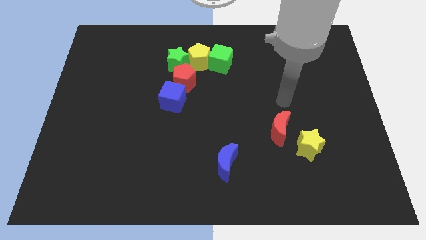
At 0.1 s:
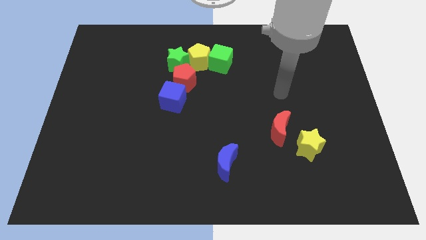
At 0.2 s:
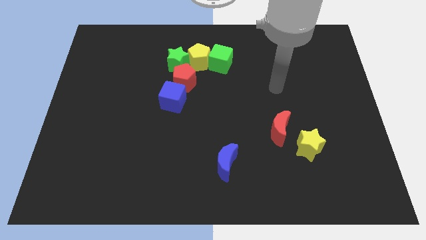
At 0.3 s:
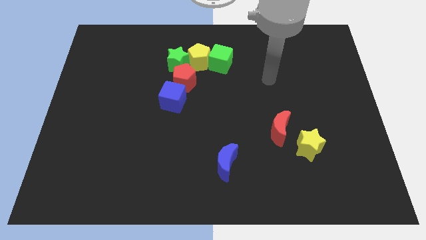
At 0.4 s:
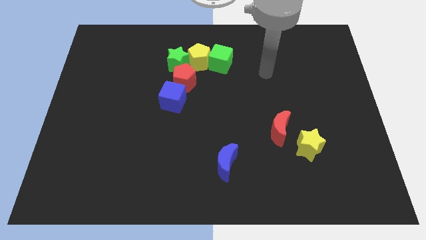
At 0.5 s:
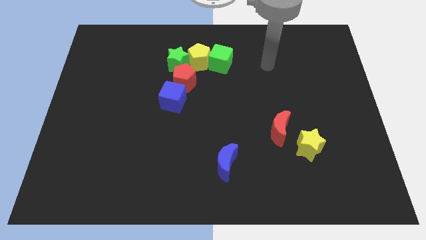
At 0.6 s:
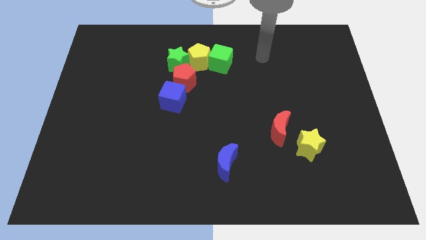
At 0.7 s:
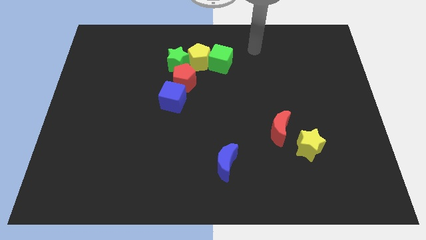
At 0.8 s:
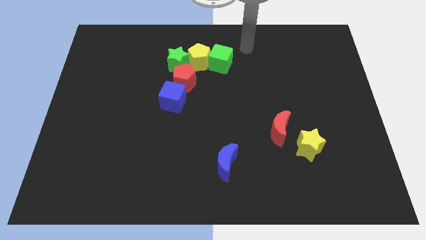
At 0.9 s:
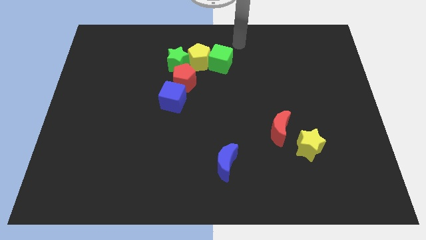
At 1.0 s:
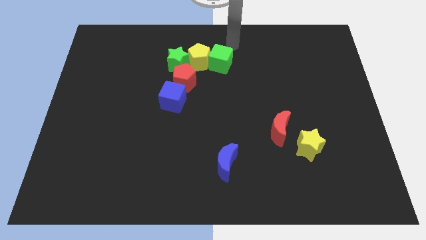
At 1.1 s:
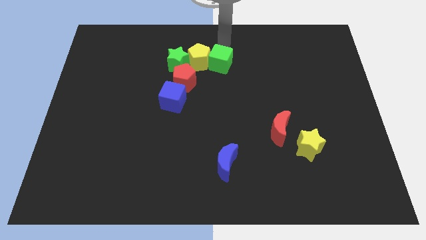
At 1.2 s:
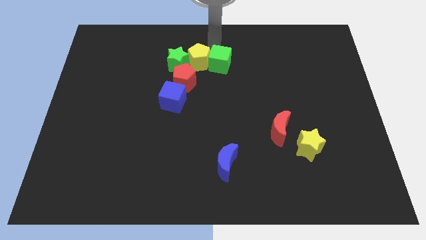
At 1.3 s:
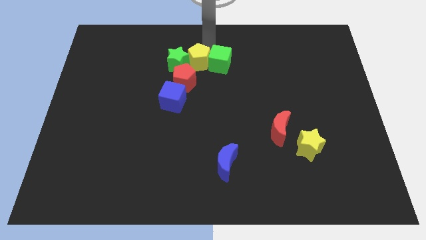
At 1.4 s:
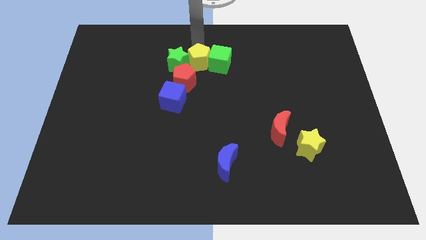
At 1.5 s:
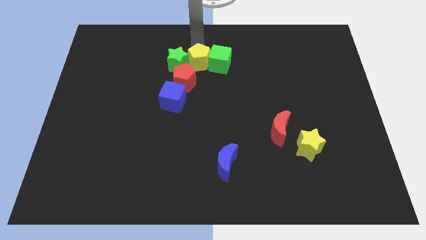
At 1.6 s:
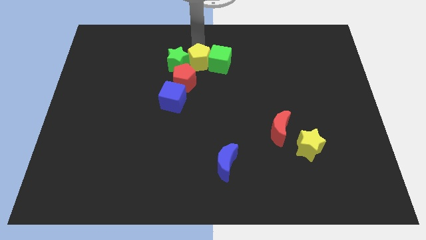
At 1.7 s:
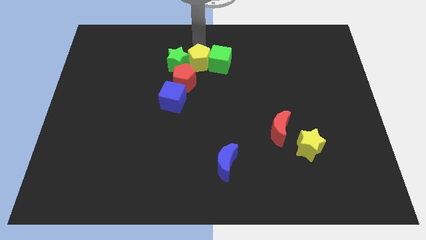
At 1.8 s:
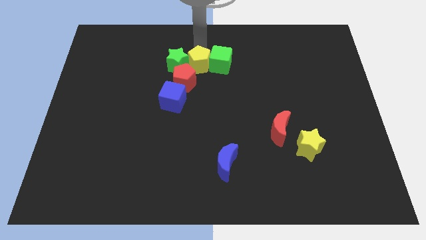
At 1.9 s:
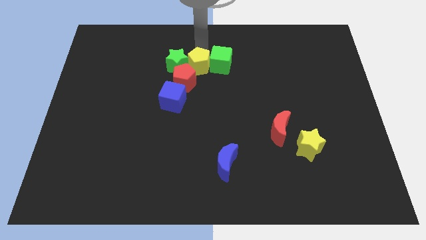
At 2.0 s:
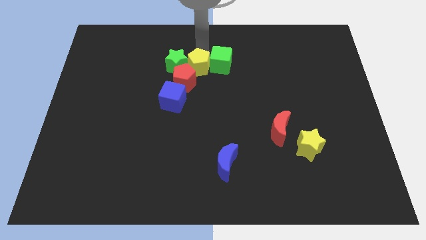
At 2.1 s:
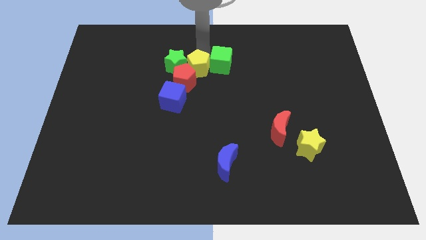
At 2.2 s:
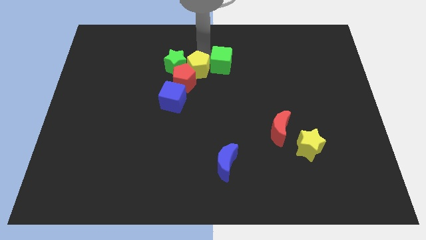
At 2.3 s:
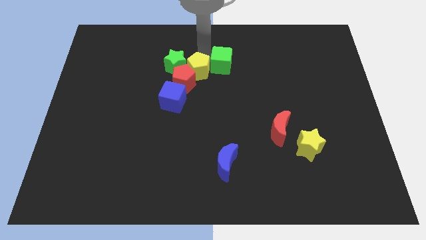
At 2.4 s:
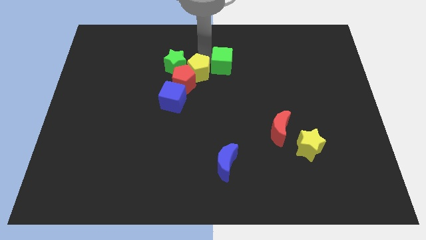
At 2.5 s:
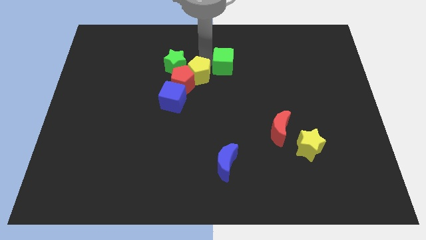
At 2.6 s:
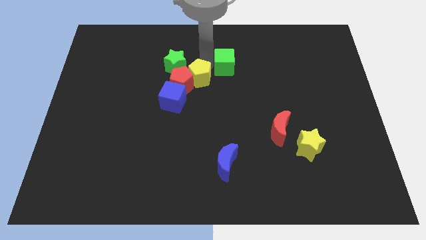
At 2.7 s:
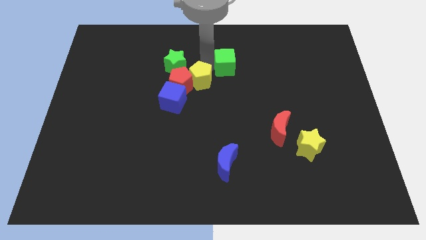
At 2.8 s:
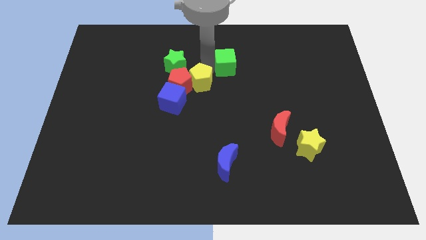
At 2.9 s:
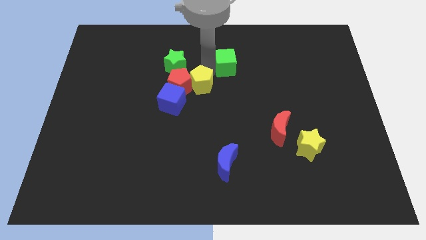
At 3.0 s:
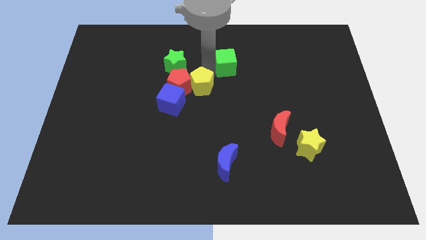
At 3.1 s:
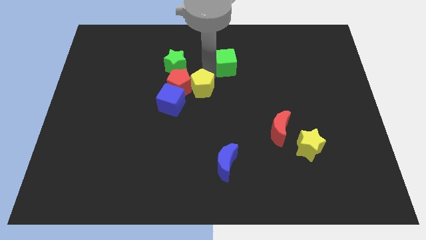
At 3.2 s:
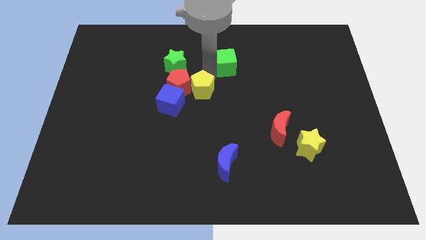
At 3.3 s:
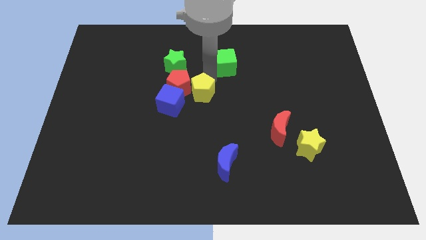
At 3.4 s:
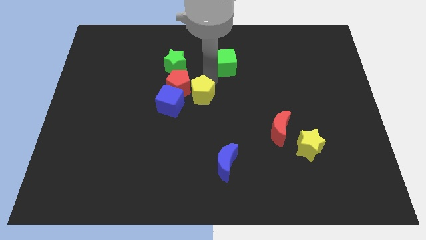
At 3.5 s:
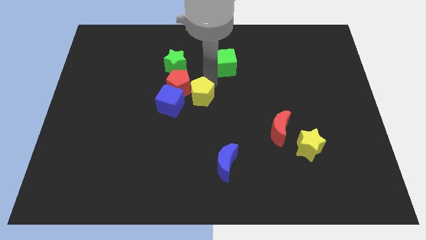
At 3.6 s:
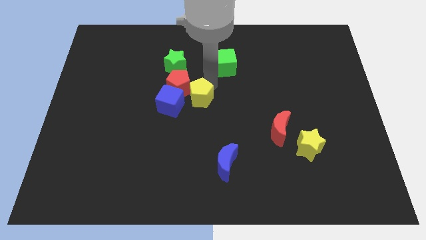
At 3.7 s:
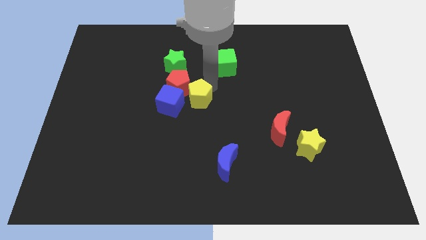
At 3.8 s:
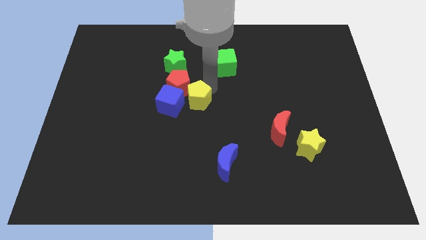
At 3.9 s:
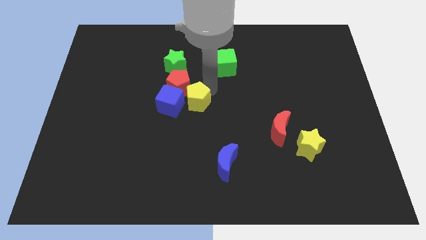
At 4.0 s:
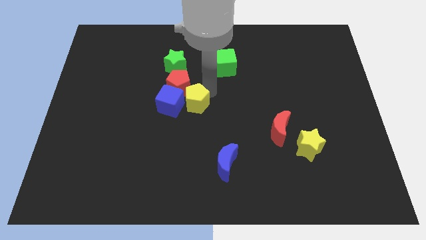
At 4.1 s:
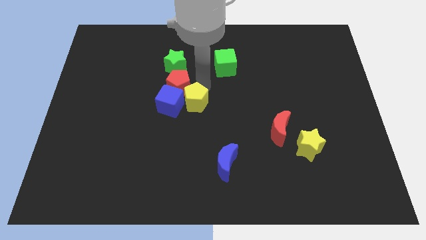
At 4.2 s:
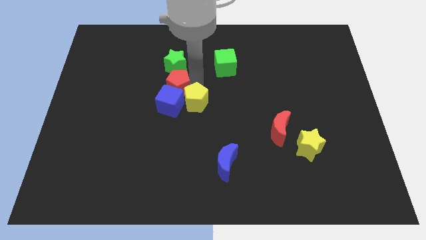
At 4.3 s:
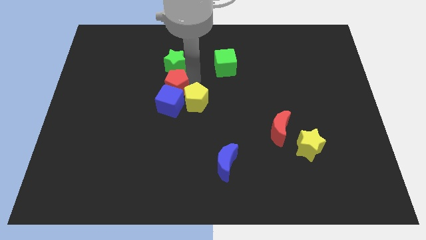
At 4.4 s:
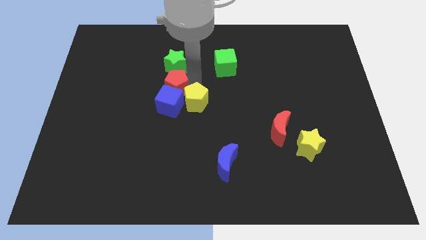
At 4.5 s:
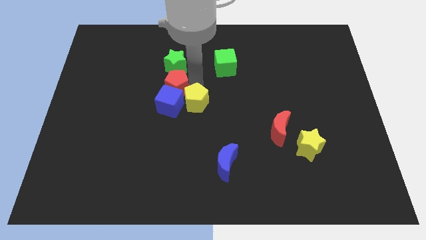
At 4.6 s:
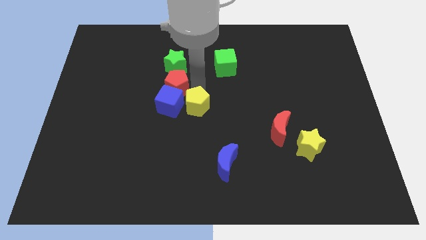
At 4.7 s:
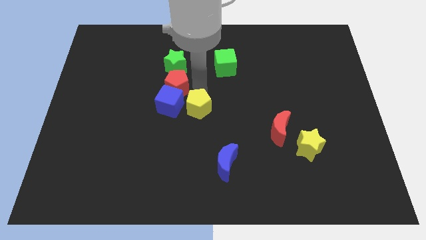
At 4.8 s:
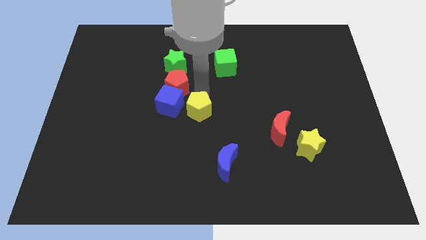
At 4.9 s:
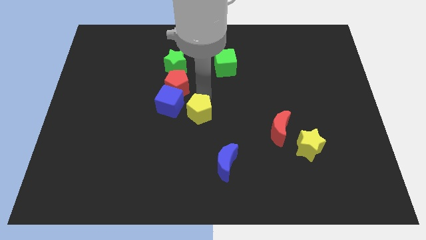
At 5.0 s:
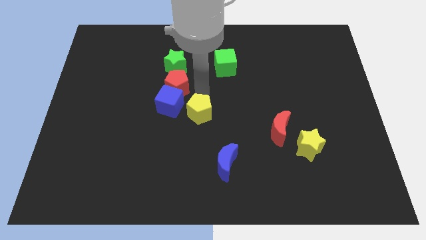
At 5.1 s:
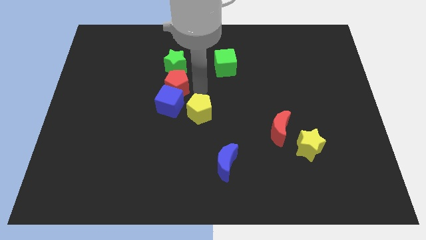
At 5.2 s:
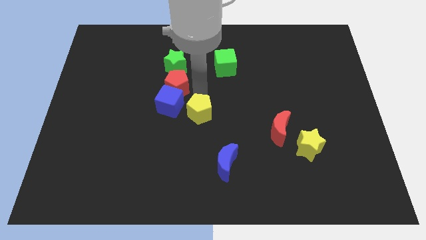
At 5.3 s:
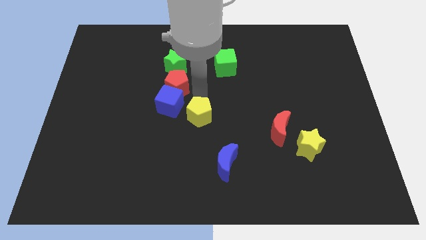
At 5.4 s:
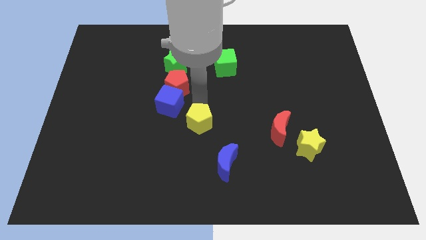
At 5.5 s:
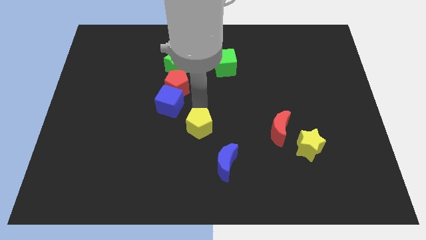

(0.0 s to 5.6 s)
push the yellow pentagon downwards

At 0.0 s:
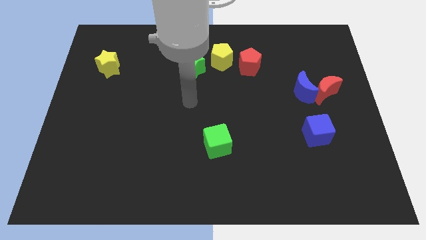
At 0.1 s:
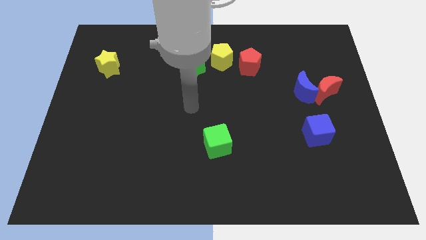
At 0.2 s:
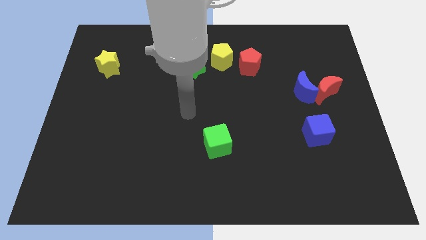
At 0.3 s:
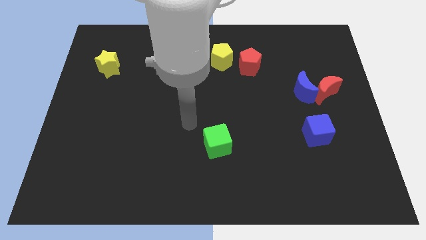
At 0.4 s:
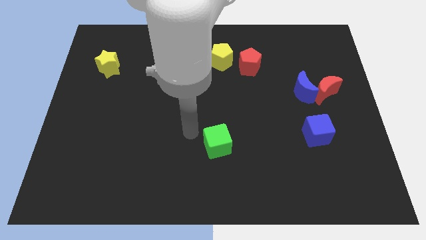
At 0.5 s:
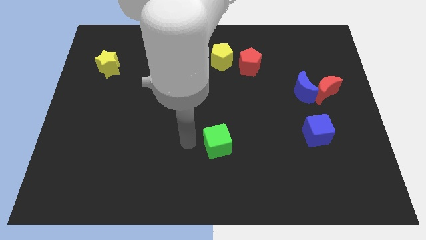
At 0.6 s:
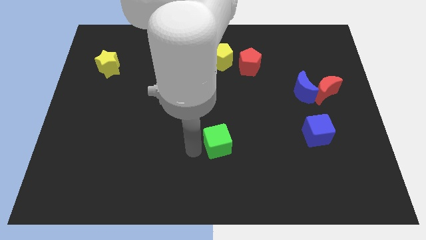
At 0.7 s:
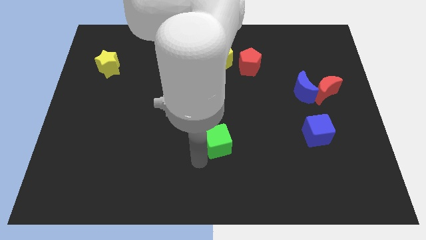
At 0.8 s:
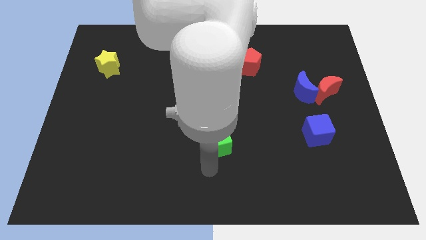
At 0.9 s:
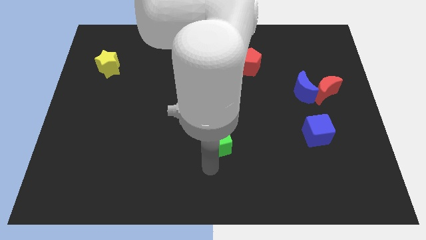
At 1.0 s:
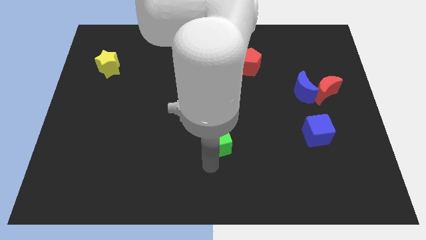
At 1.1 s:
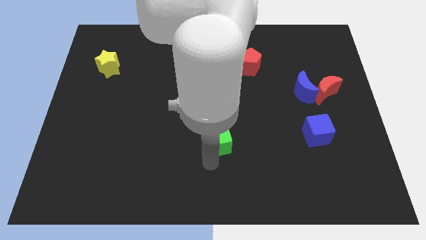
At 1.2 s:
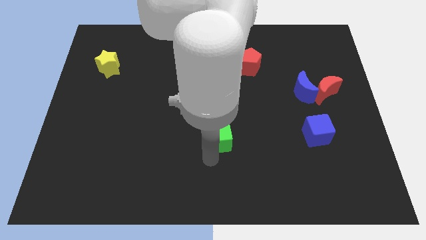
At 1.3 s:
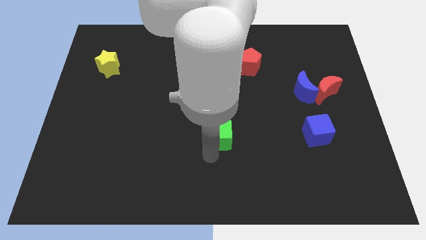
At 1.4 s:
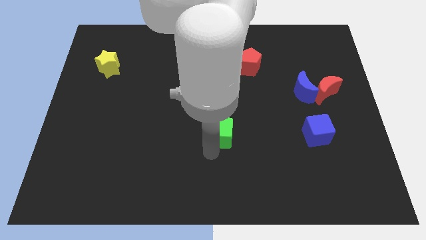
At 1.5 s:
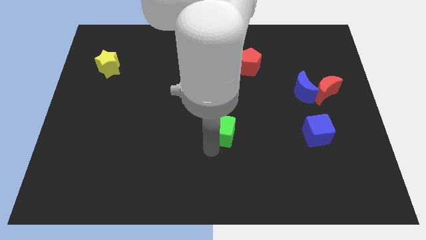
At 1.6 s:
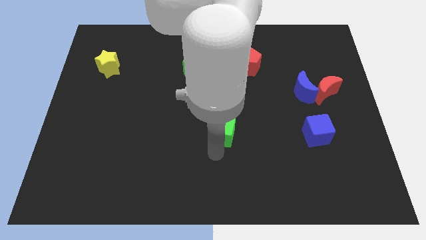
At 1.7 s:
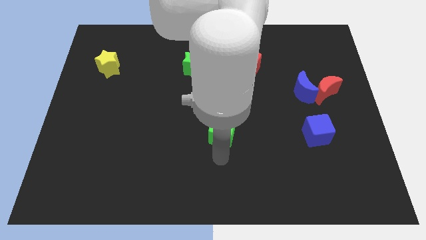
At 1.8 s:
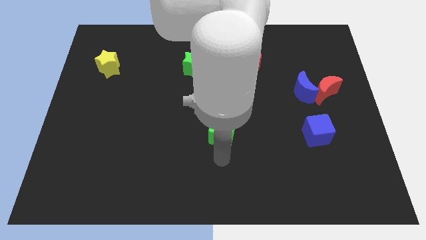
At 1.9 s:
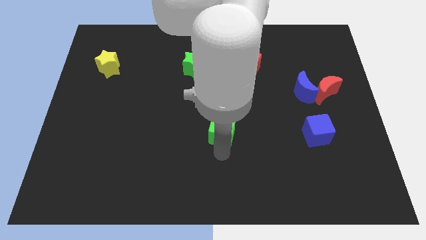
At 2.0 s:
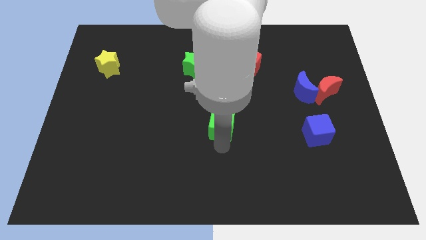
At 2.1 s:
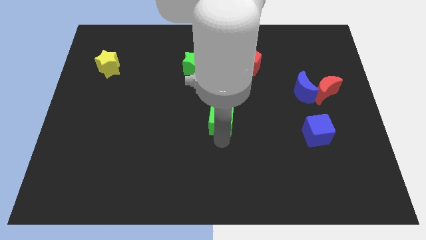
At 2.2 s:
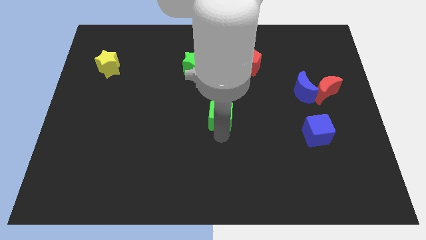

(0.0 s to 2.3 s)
move the green cube upwards a little

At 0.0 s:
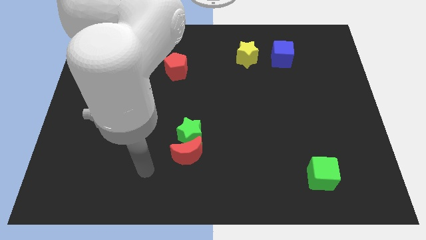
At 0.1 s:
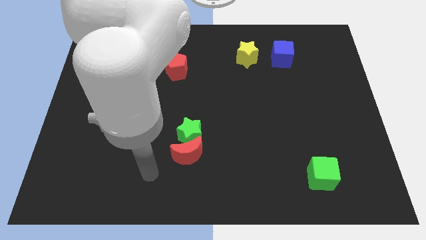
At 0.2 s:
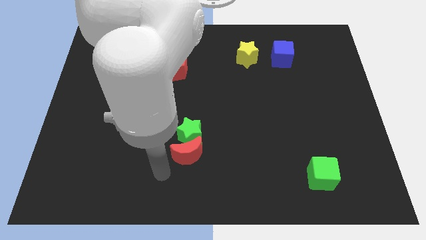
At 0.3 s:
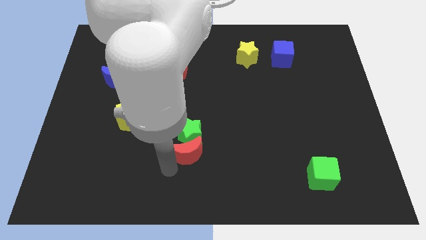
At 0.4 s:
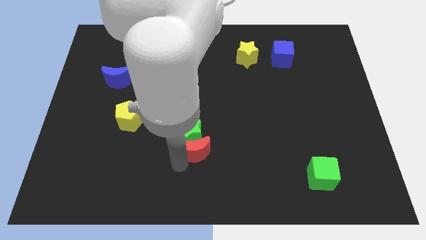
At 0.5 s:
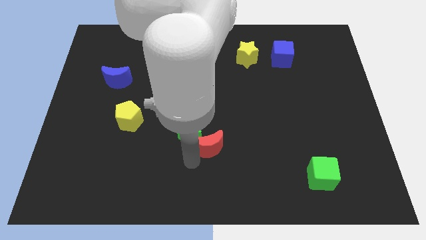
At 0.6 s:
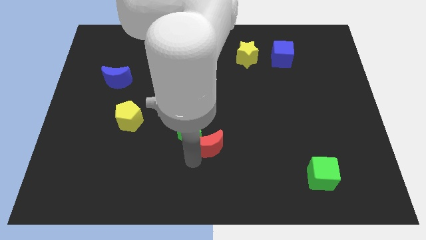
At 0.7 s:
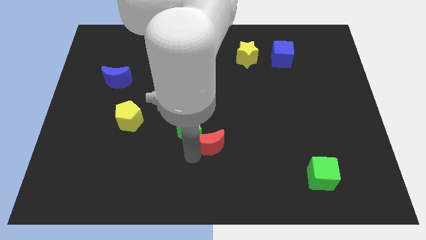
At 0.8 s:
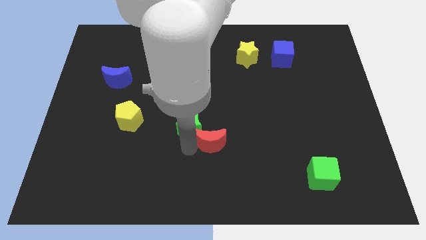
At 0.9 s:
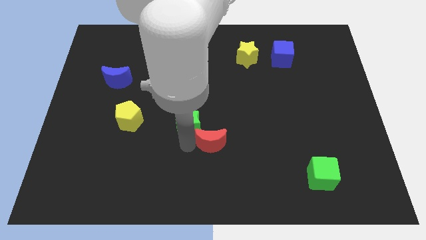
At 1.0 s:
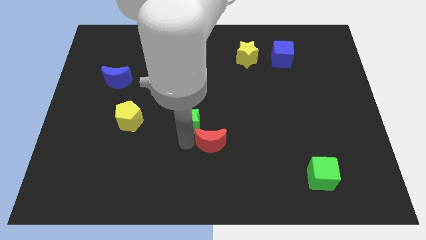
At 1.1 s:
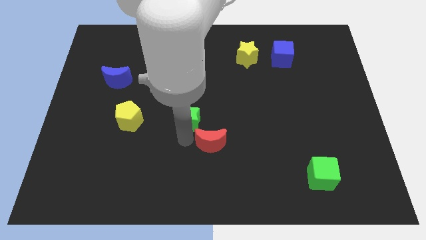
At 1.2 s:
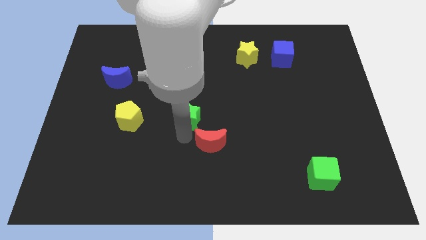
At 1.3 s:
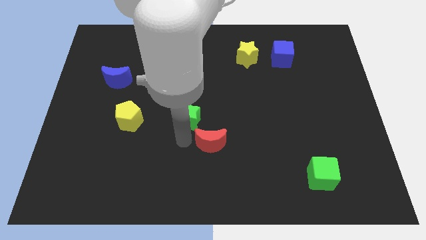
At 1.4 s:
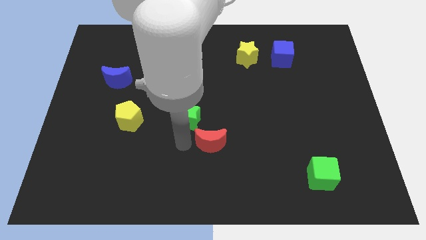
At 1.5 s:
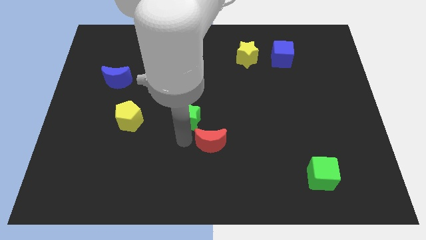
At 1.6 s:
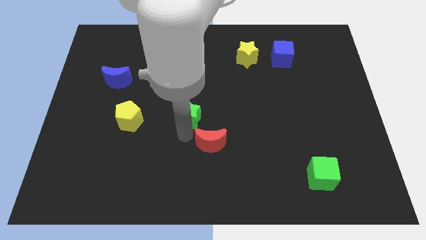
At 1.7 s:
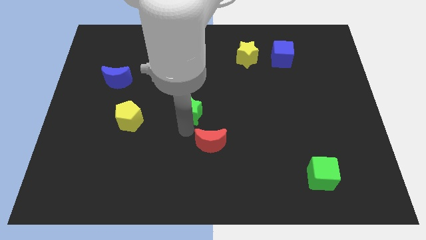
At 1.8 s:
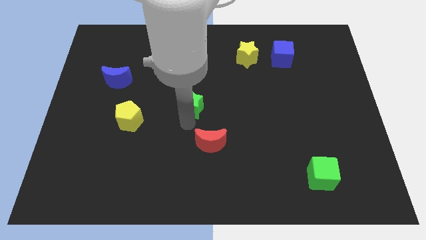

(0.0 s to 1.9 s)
move the green star a little bit up
